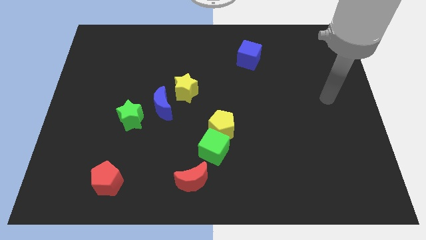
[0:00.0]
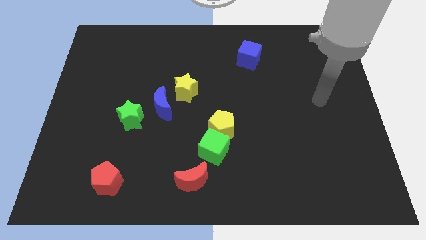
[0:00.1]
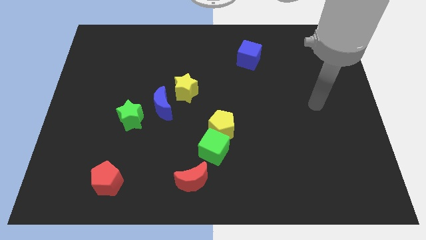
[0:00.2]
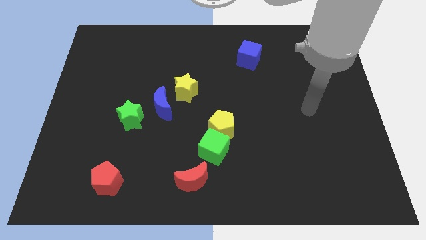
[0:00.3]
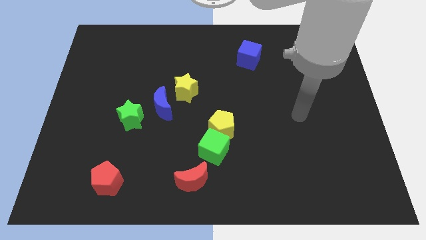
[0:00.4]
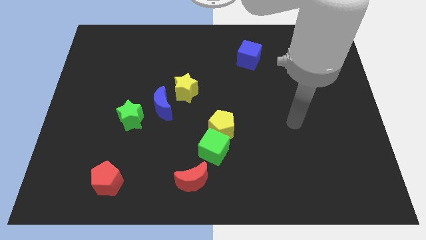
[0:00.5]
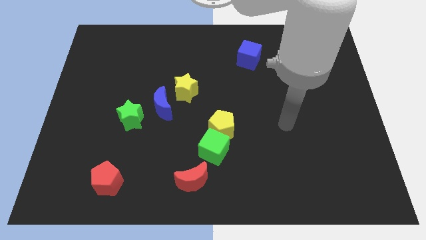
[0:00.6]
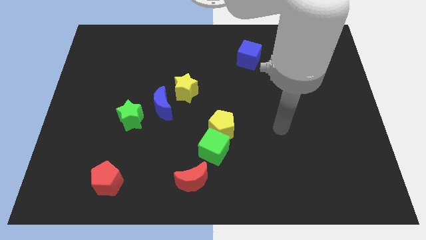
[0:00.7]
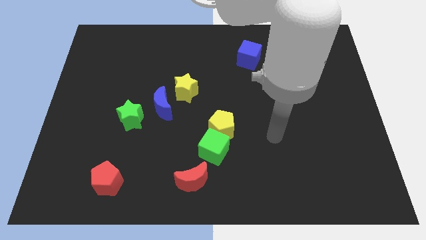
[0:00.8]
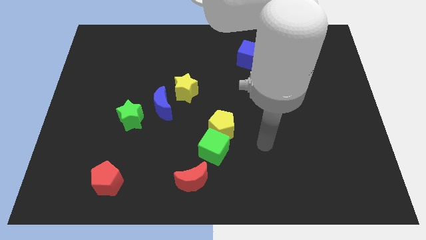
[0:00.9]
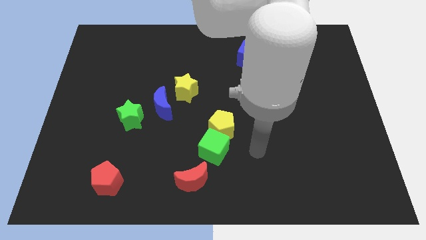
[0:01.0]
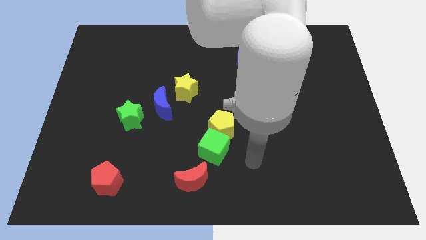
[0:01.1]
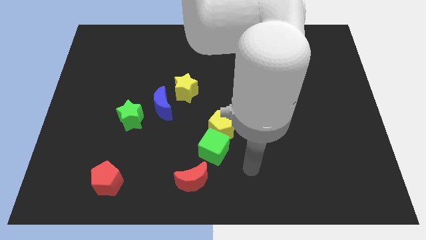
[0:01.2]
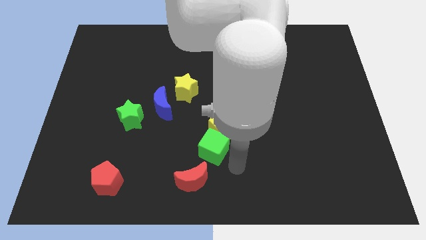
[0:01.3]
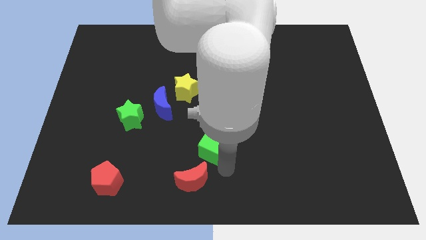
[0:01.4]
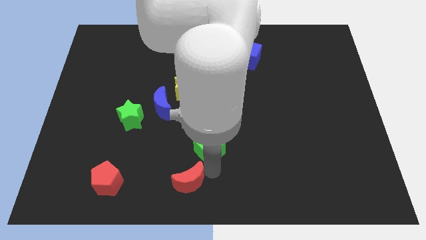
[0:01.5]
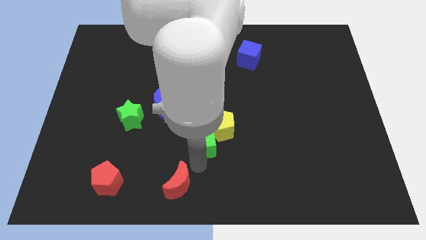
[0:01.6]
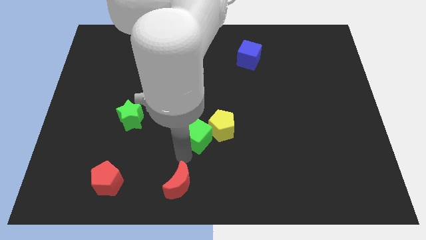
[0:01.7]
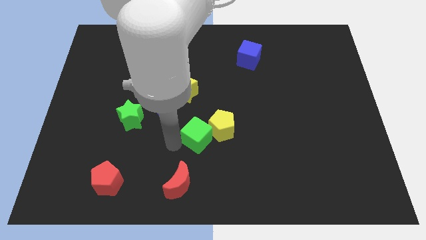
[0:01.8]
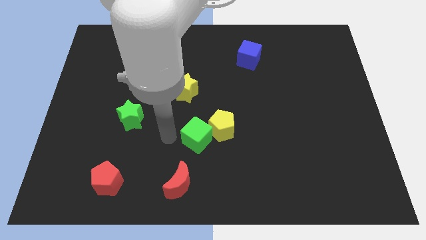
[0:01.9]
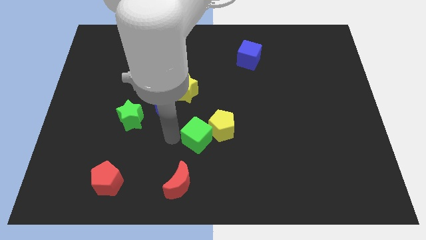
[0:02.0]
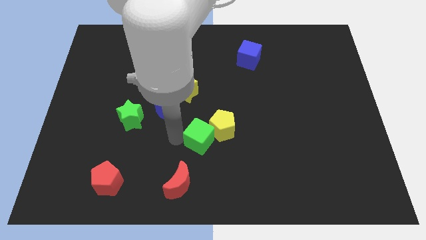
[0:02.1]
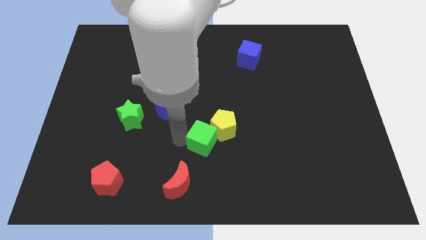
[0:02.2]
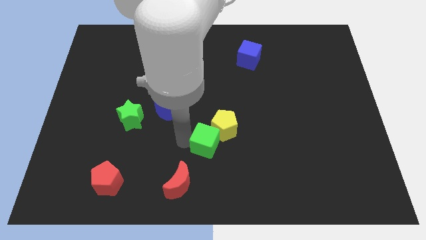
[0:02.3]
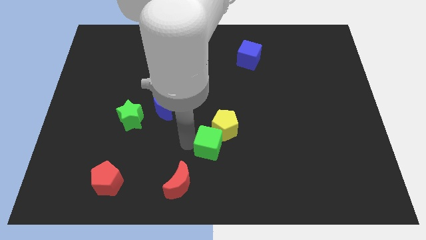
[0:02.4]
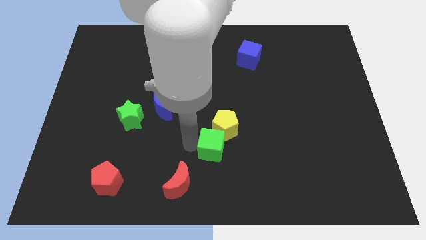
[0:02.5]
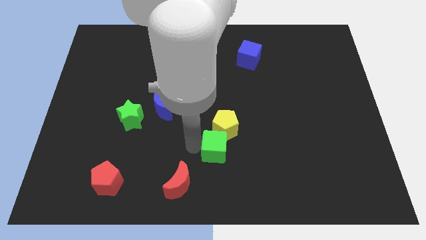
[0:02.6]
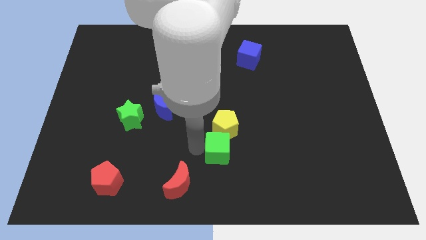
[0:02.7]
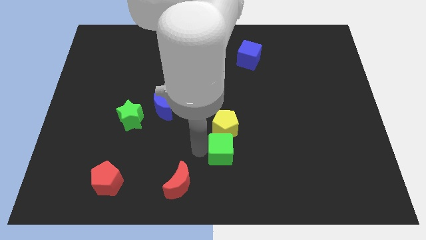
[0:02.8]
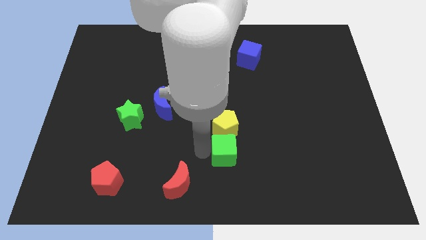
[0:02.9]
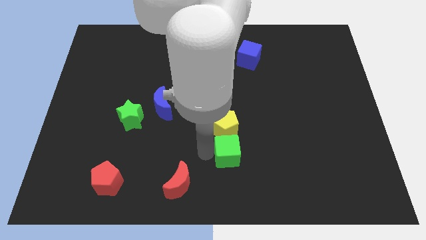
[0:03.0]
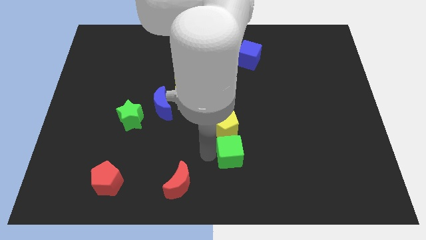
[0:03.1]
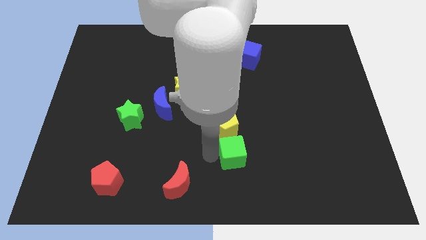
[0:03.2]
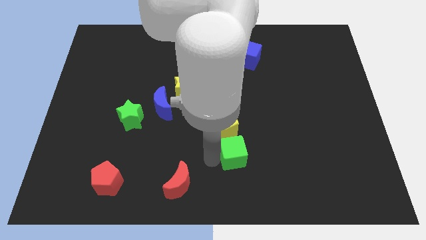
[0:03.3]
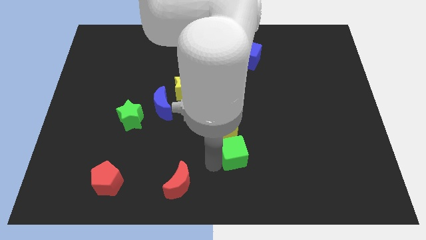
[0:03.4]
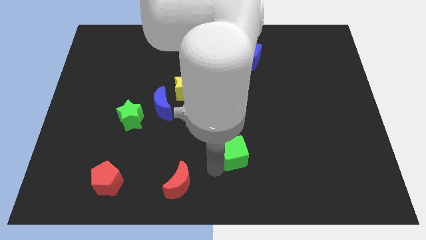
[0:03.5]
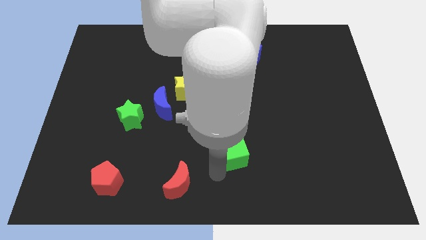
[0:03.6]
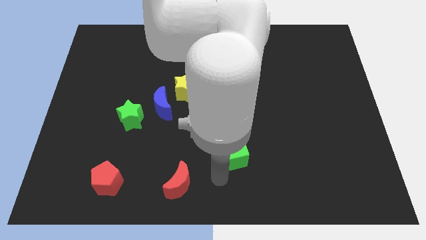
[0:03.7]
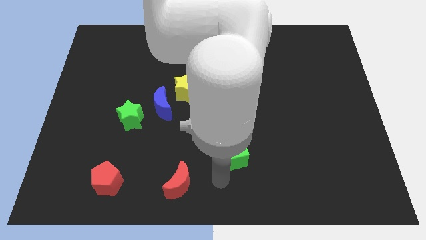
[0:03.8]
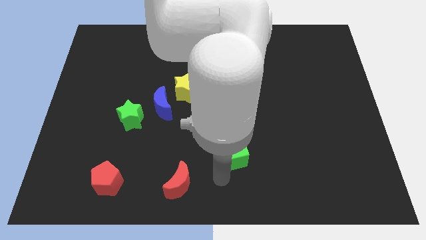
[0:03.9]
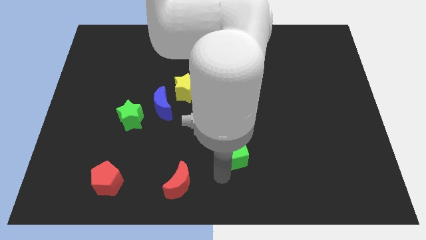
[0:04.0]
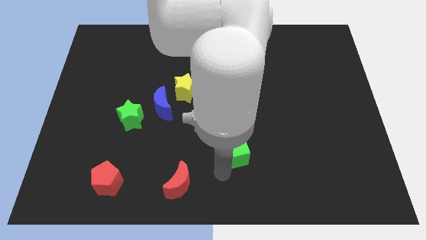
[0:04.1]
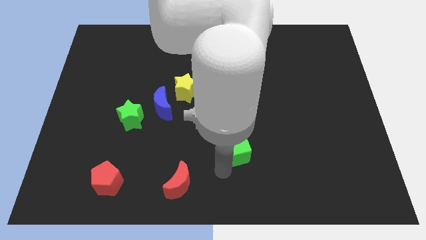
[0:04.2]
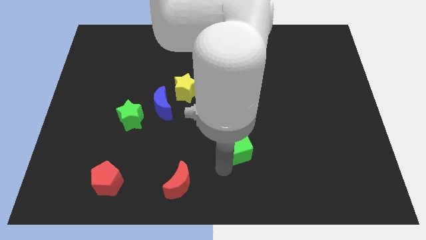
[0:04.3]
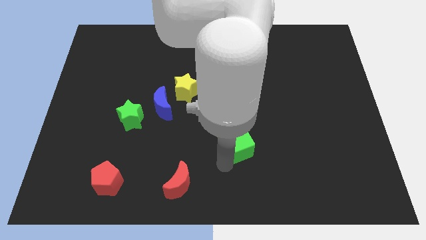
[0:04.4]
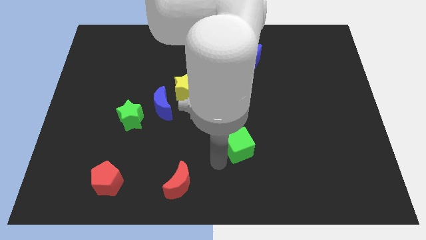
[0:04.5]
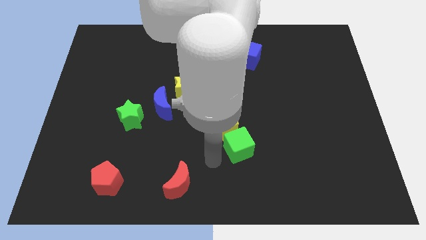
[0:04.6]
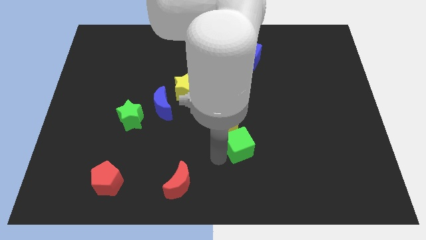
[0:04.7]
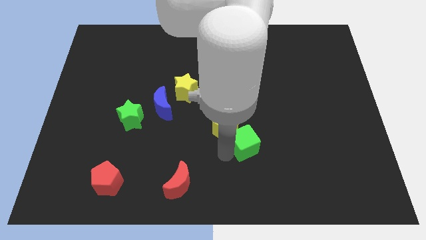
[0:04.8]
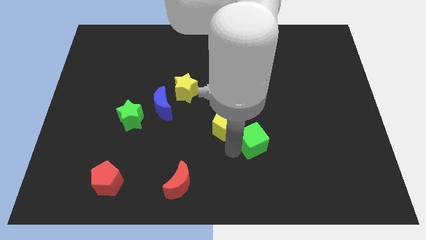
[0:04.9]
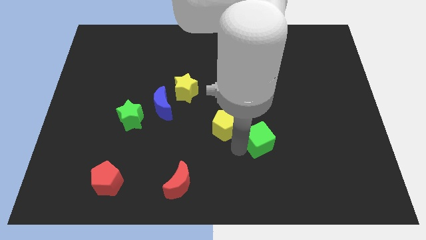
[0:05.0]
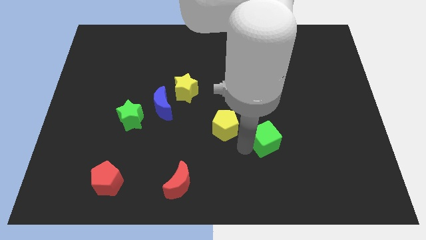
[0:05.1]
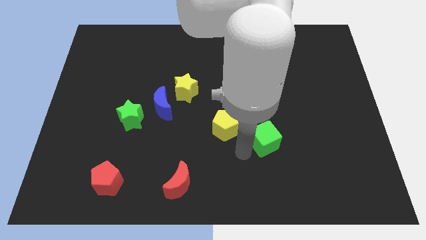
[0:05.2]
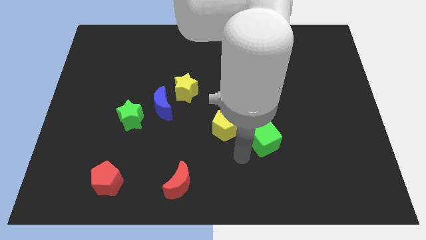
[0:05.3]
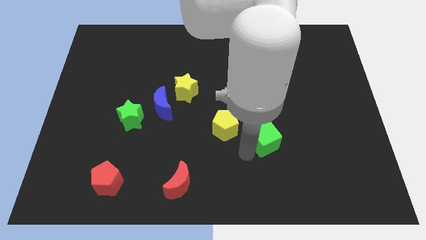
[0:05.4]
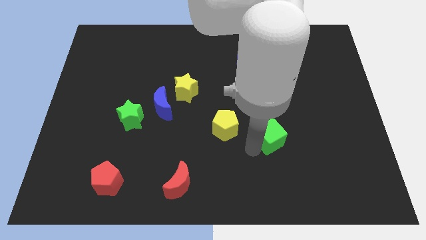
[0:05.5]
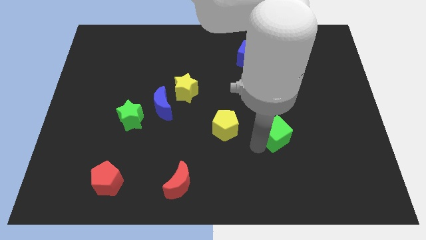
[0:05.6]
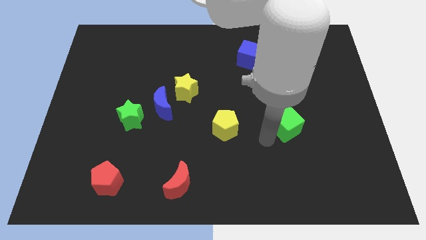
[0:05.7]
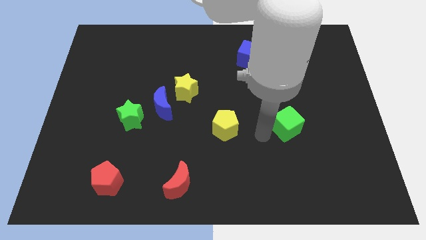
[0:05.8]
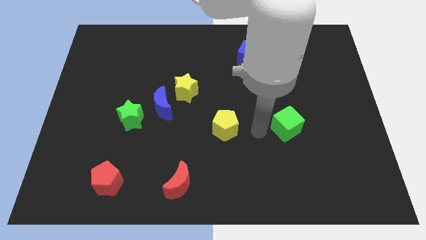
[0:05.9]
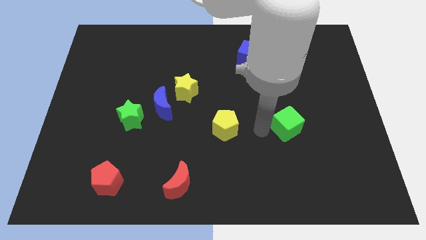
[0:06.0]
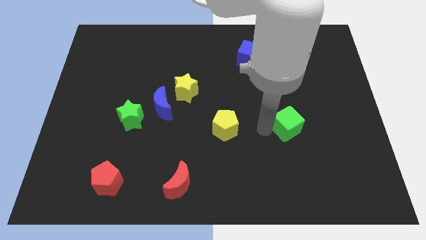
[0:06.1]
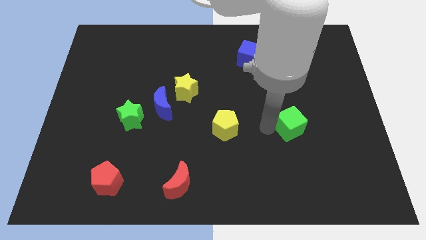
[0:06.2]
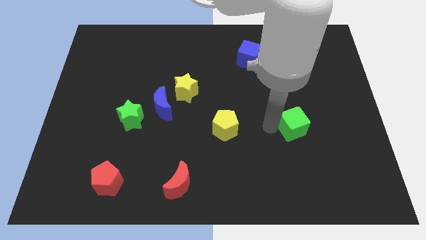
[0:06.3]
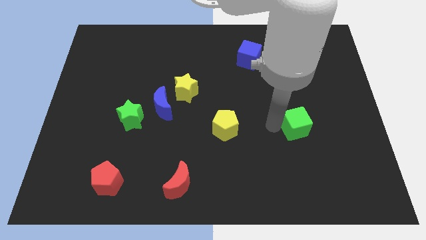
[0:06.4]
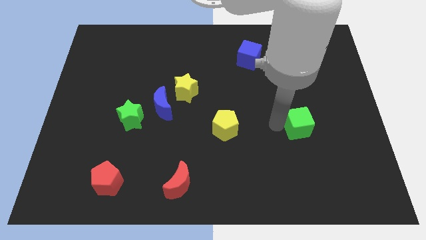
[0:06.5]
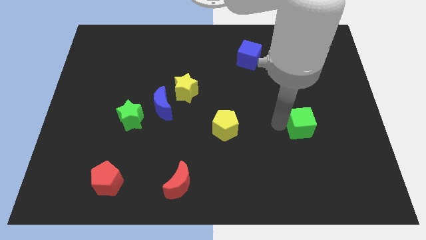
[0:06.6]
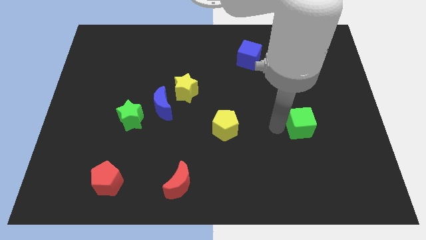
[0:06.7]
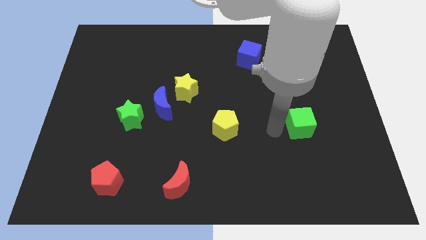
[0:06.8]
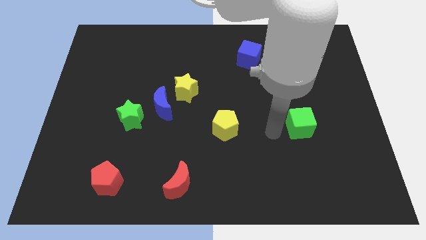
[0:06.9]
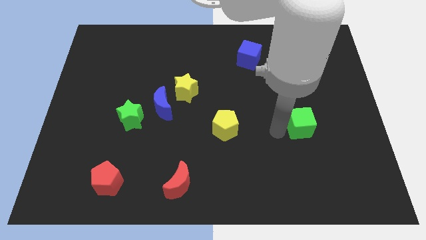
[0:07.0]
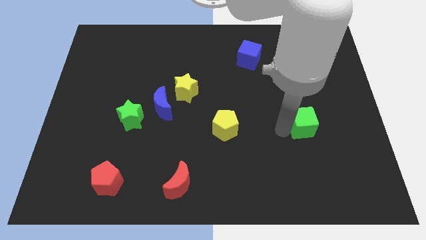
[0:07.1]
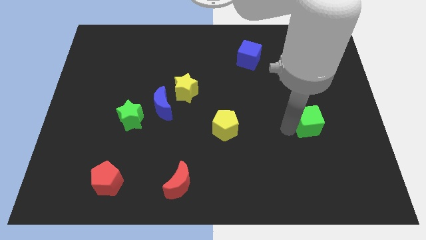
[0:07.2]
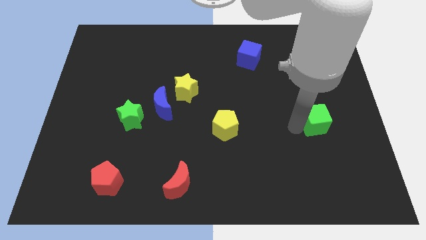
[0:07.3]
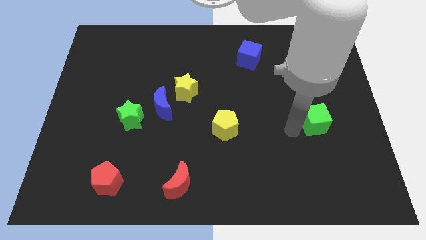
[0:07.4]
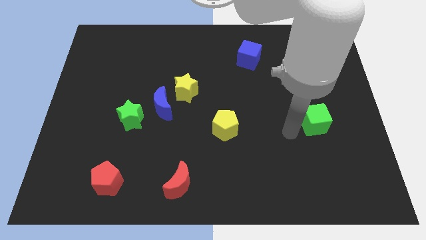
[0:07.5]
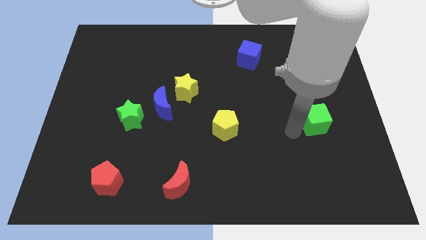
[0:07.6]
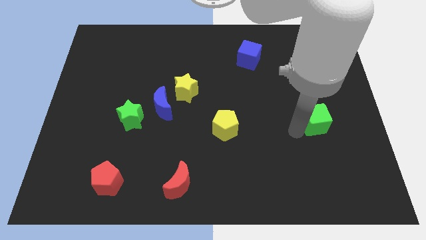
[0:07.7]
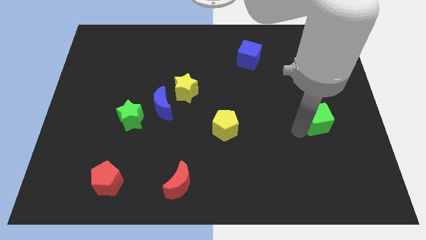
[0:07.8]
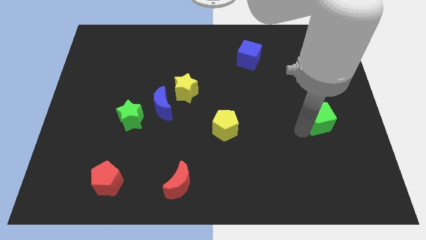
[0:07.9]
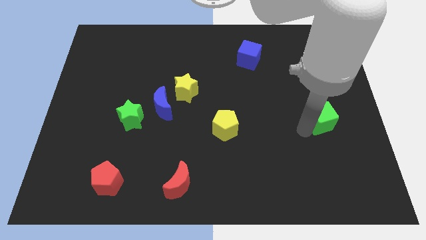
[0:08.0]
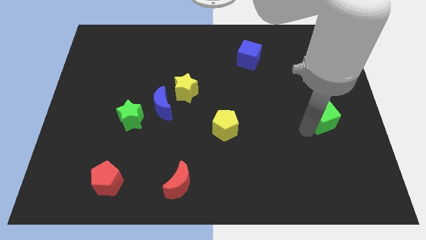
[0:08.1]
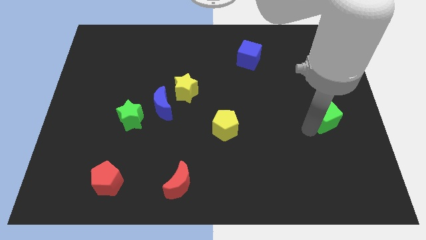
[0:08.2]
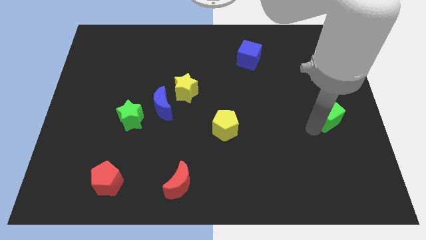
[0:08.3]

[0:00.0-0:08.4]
put the green cube to the center right
